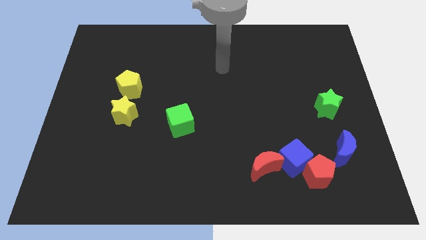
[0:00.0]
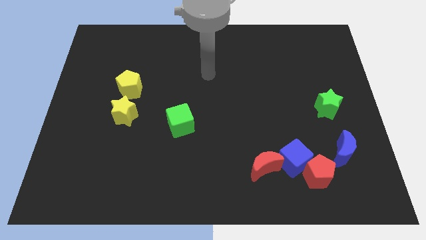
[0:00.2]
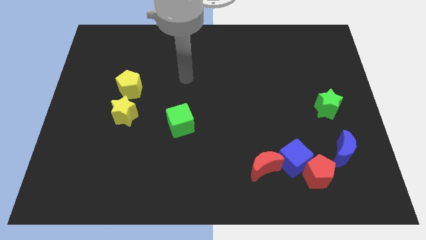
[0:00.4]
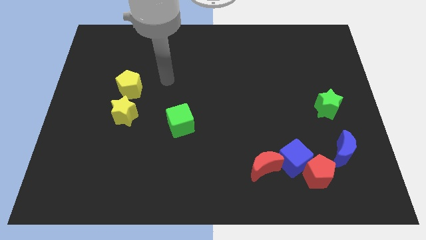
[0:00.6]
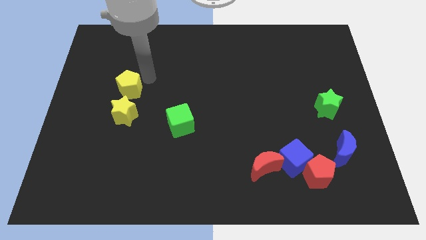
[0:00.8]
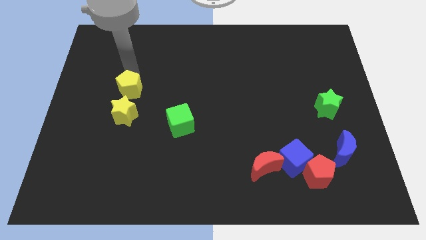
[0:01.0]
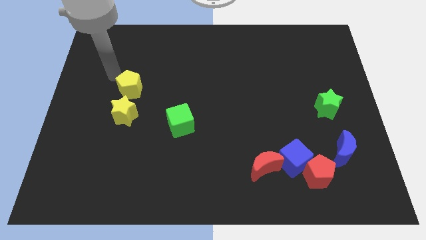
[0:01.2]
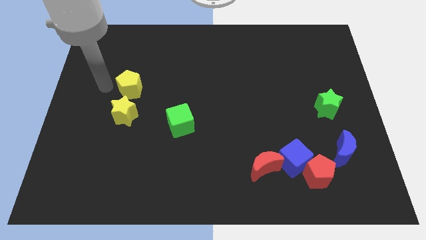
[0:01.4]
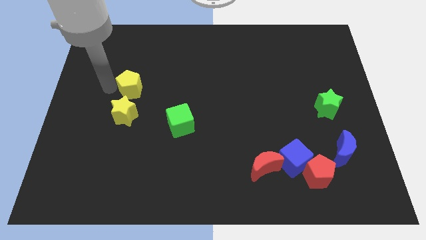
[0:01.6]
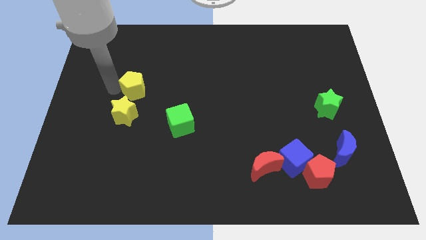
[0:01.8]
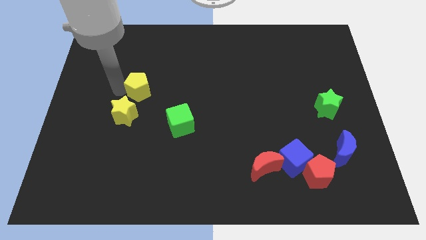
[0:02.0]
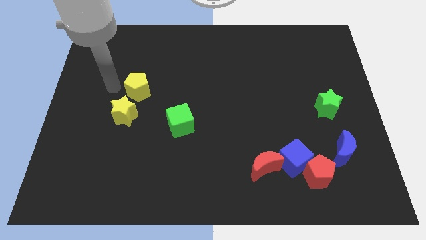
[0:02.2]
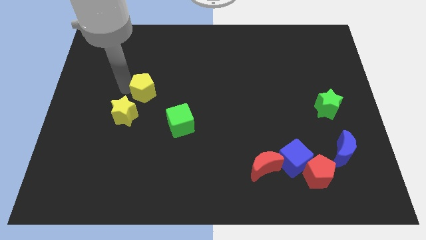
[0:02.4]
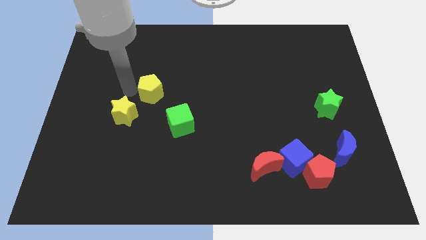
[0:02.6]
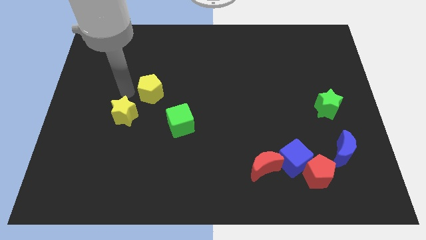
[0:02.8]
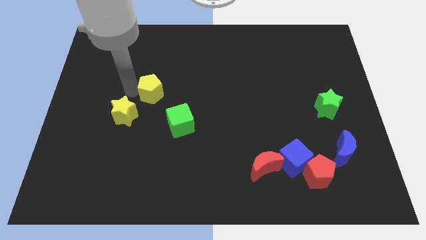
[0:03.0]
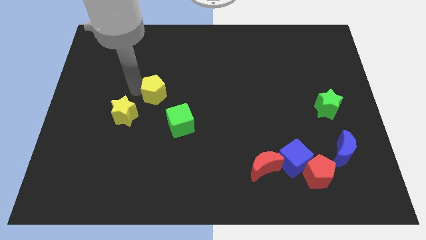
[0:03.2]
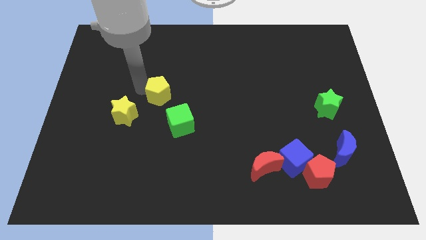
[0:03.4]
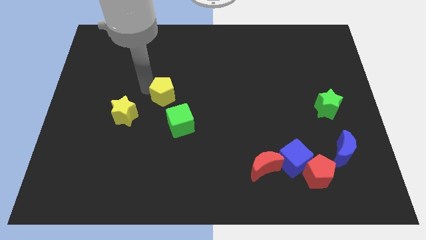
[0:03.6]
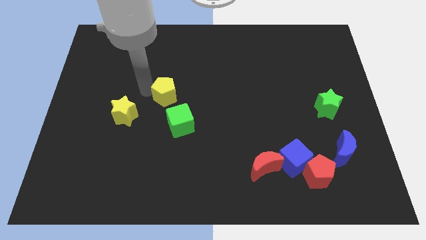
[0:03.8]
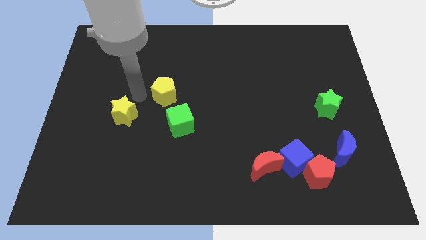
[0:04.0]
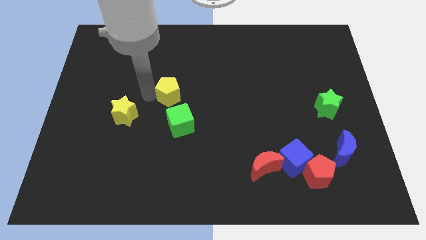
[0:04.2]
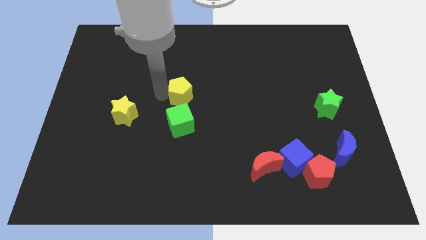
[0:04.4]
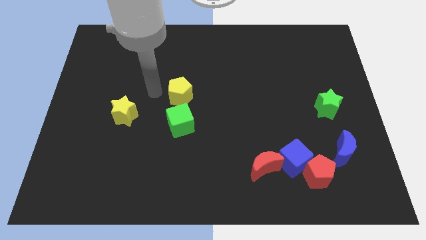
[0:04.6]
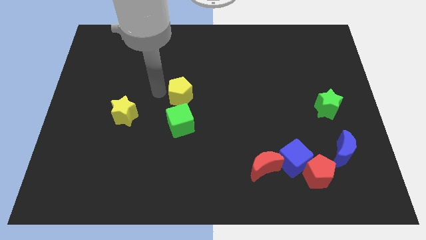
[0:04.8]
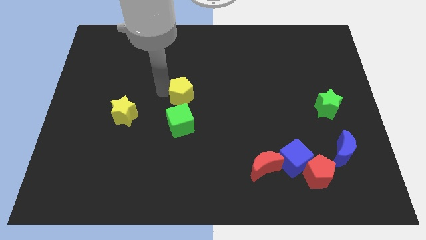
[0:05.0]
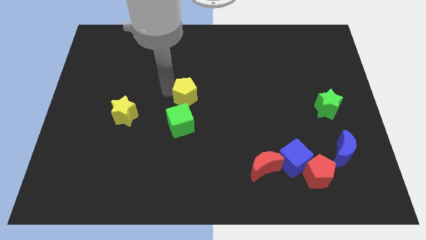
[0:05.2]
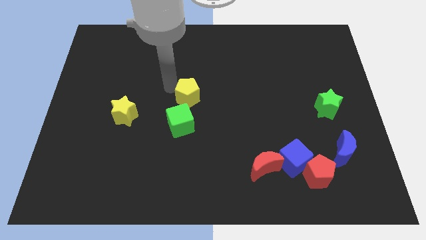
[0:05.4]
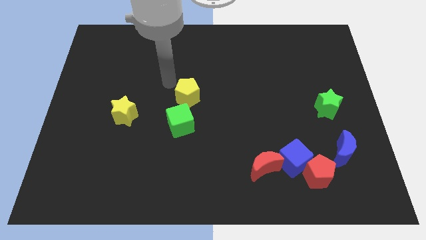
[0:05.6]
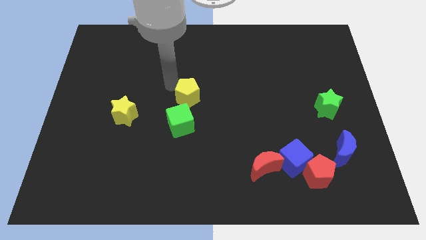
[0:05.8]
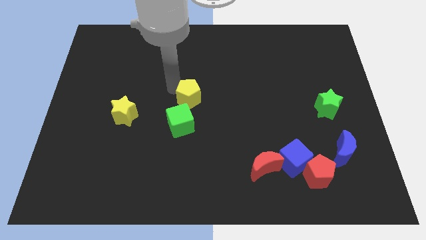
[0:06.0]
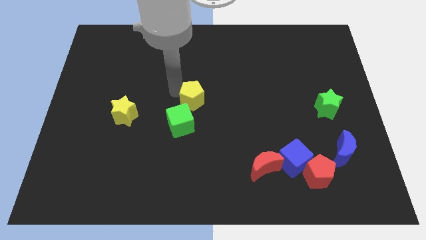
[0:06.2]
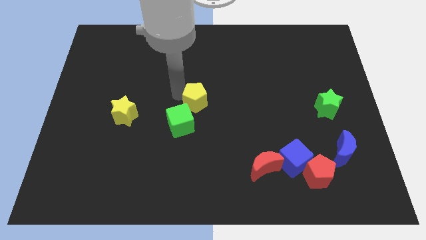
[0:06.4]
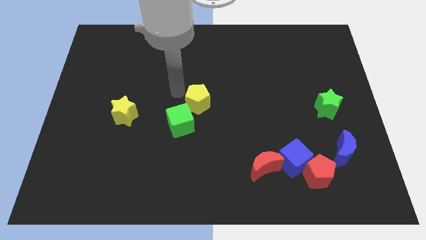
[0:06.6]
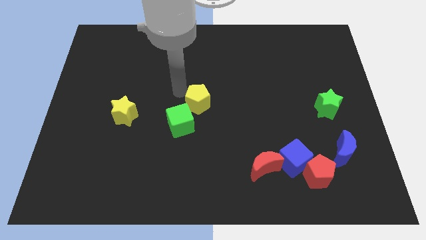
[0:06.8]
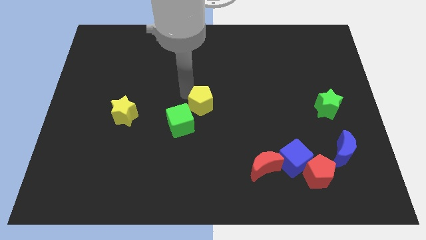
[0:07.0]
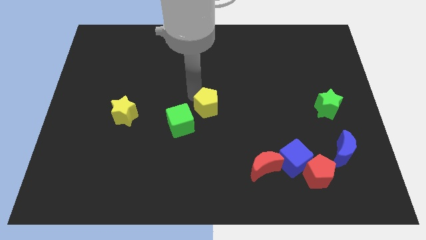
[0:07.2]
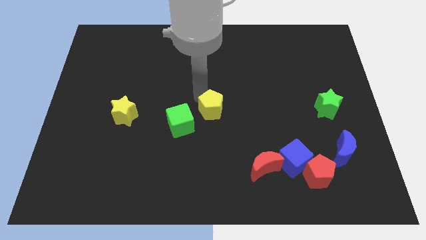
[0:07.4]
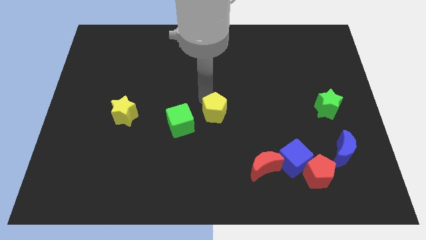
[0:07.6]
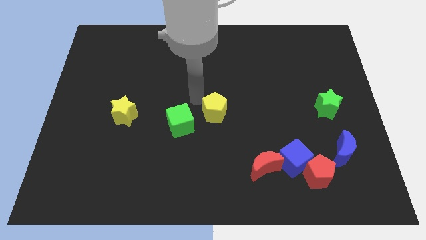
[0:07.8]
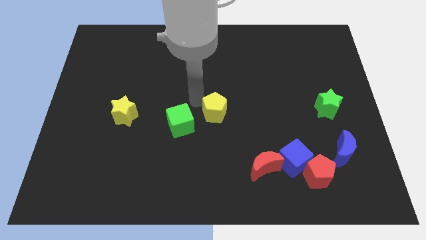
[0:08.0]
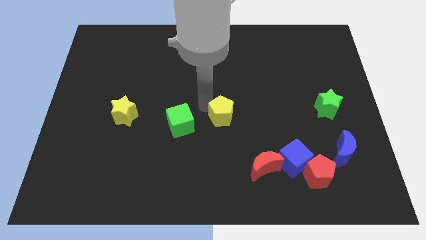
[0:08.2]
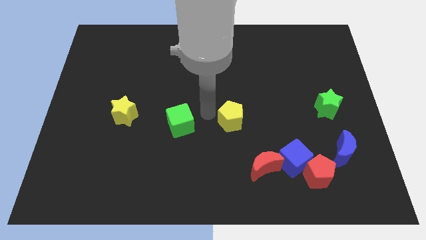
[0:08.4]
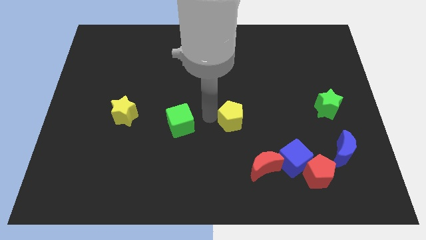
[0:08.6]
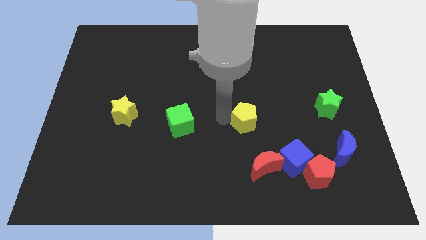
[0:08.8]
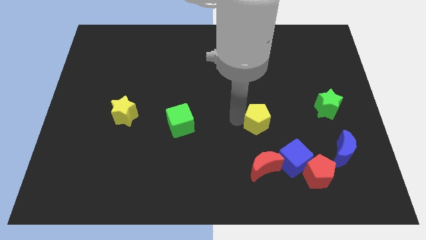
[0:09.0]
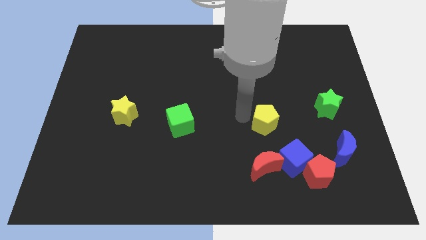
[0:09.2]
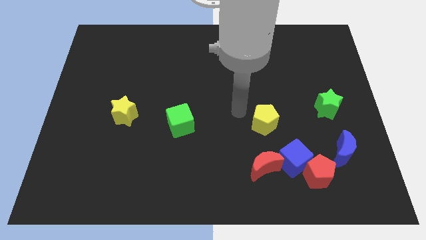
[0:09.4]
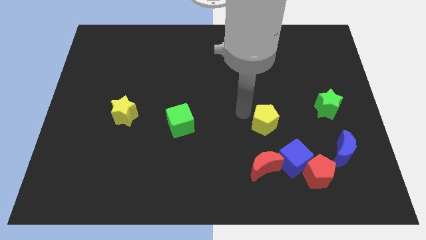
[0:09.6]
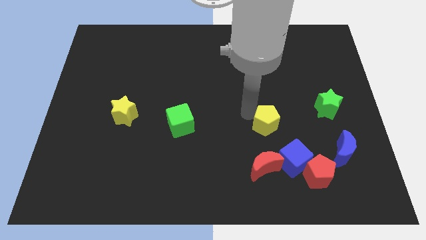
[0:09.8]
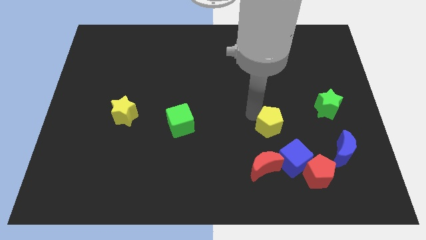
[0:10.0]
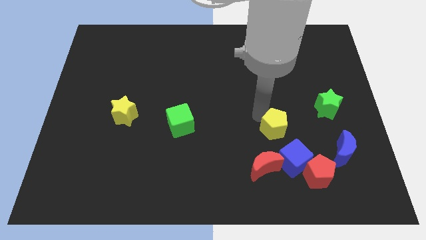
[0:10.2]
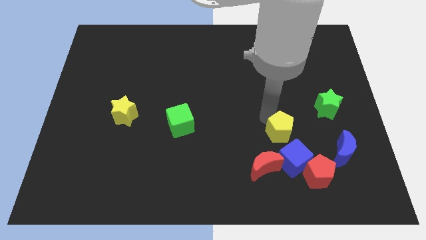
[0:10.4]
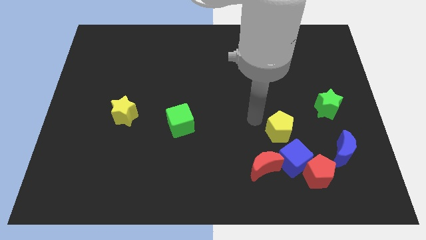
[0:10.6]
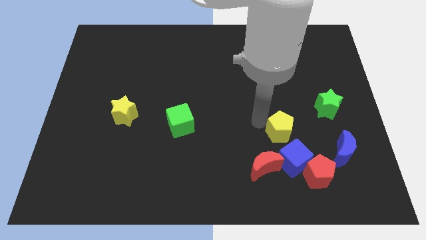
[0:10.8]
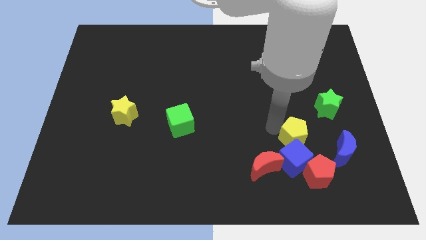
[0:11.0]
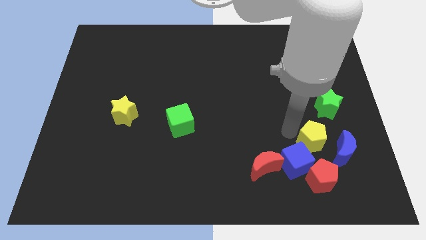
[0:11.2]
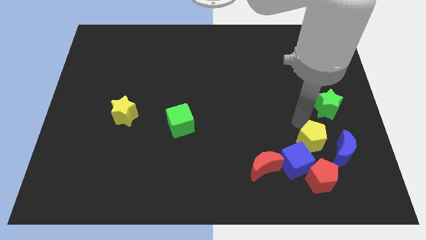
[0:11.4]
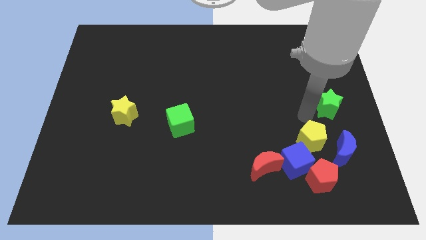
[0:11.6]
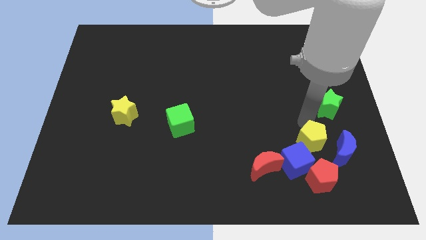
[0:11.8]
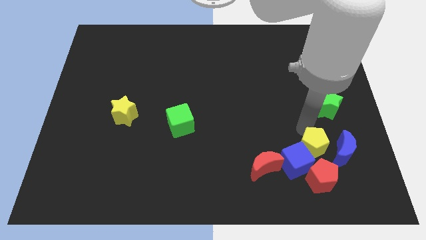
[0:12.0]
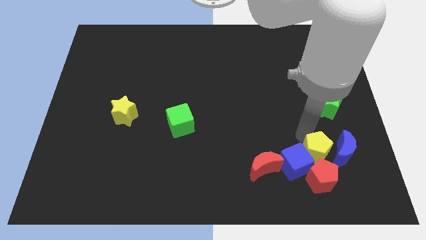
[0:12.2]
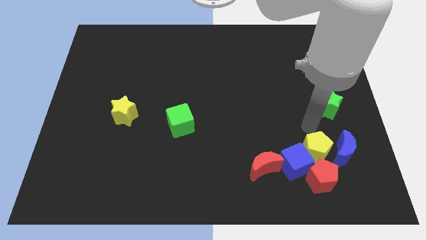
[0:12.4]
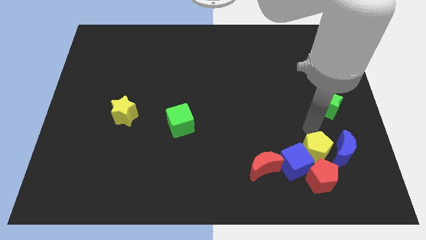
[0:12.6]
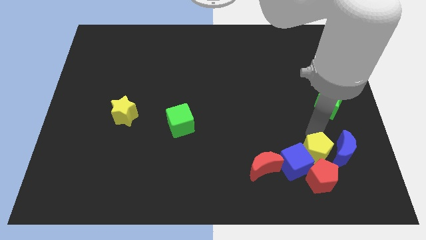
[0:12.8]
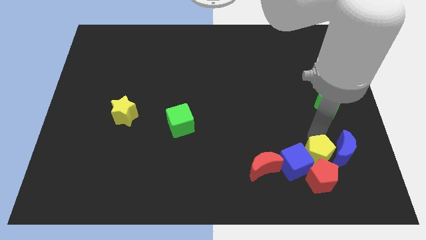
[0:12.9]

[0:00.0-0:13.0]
push the yellow pentagon next to the red pentagon

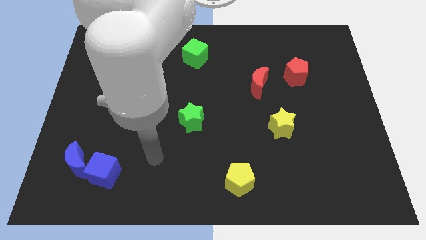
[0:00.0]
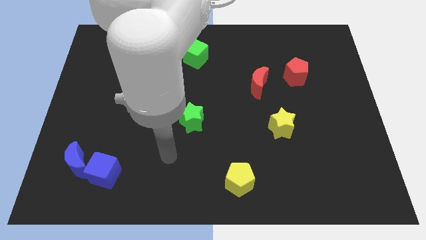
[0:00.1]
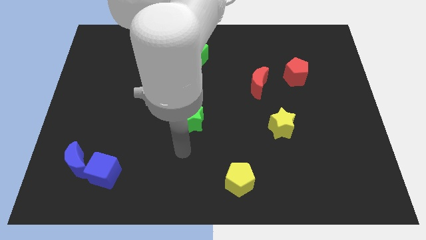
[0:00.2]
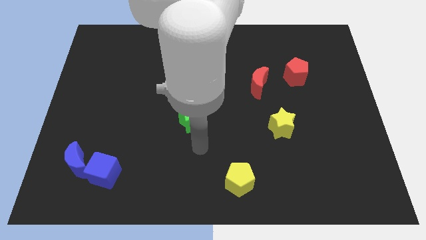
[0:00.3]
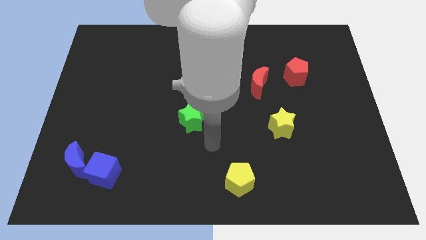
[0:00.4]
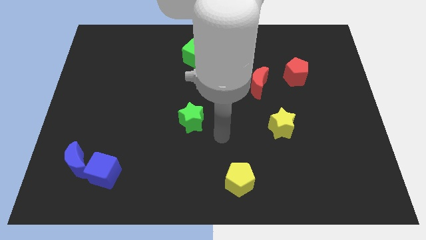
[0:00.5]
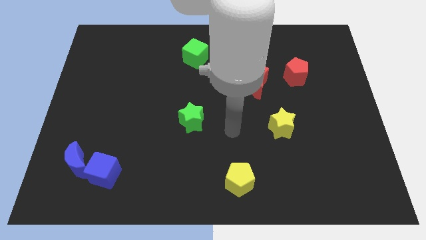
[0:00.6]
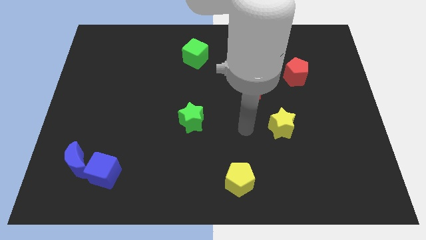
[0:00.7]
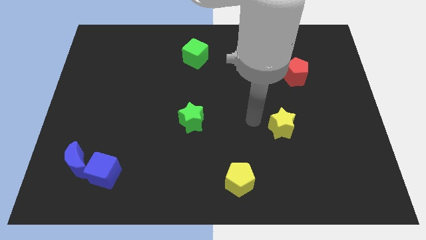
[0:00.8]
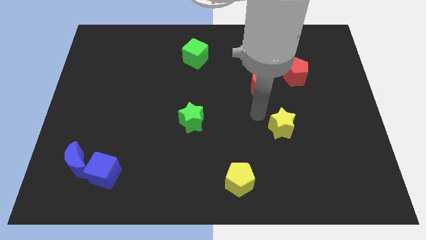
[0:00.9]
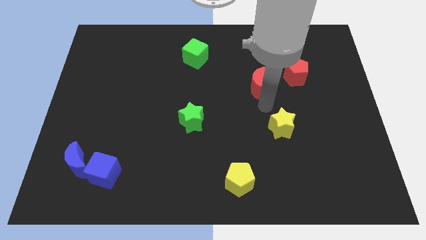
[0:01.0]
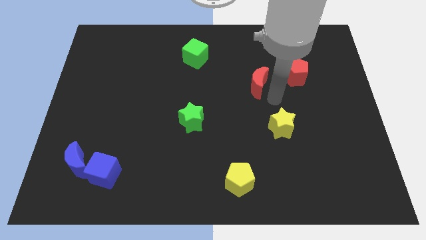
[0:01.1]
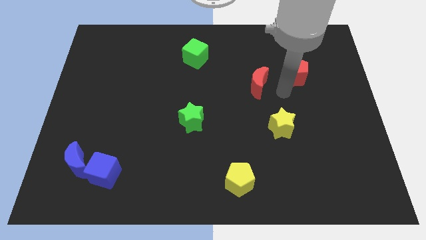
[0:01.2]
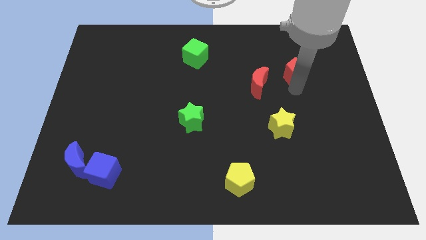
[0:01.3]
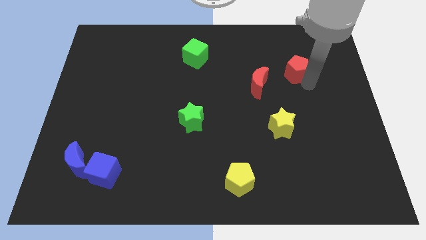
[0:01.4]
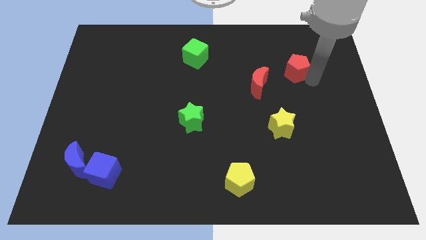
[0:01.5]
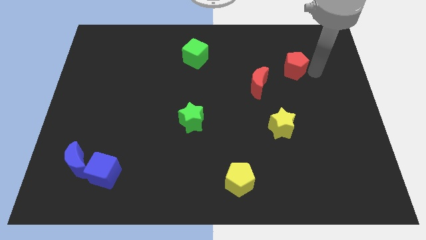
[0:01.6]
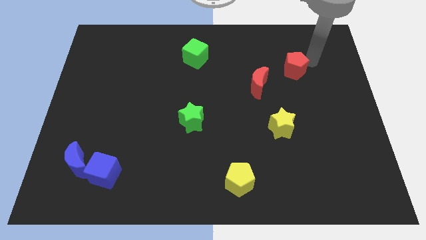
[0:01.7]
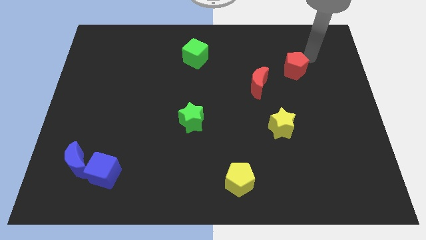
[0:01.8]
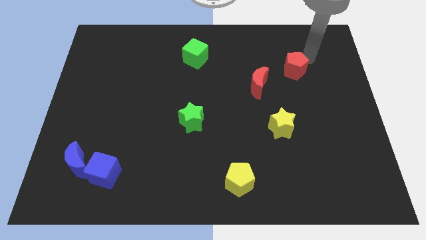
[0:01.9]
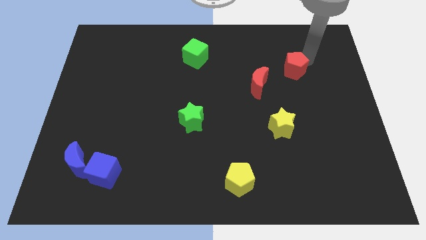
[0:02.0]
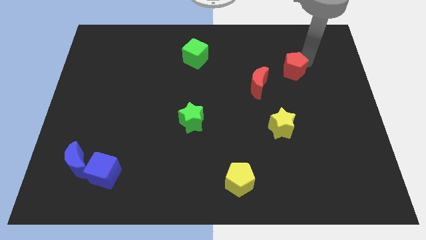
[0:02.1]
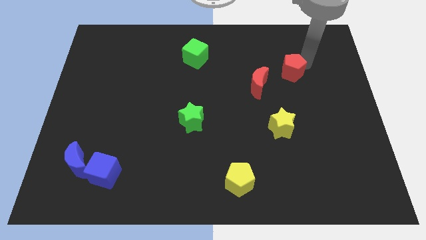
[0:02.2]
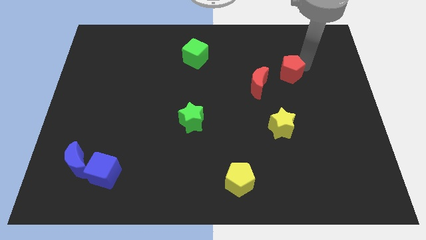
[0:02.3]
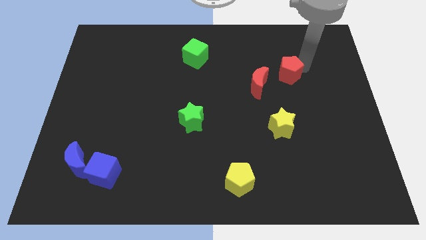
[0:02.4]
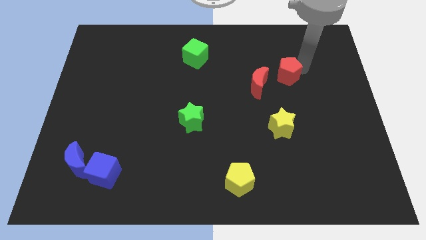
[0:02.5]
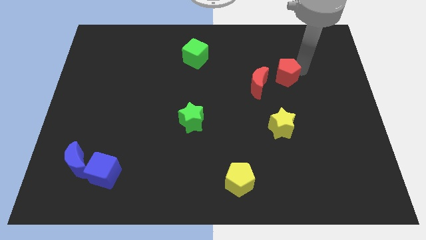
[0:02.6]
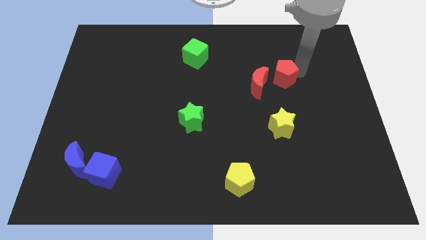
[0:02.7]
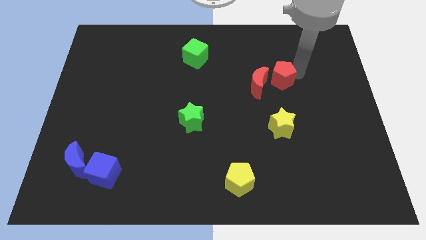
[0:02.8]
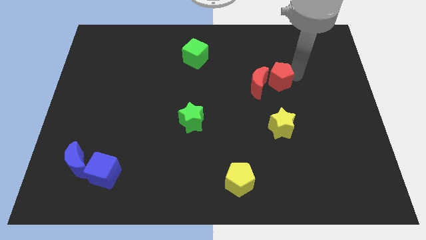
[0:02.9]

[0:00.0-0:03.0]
slide the red pentagon close to the red moon
